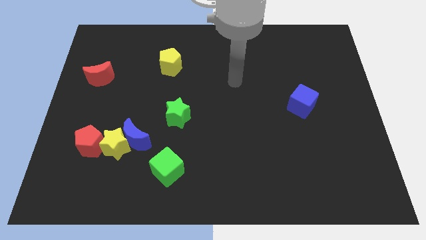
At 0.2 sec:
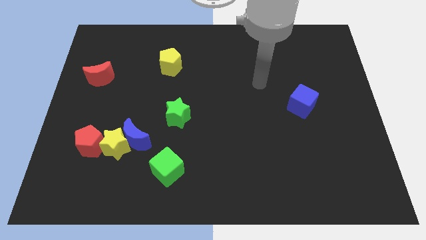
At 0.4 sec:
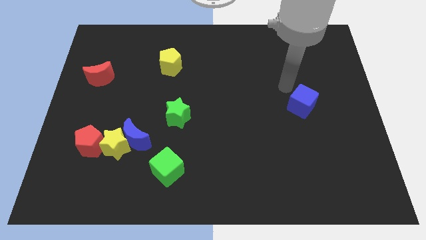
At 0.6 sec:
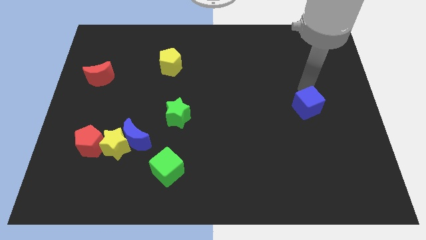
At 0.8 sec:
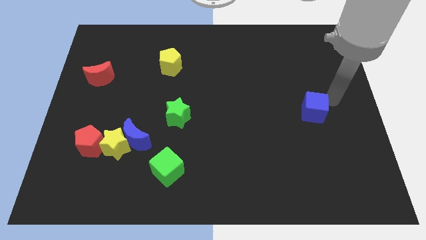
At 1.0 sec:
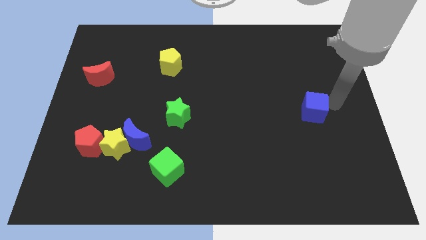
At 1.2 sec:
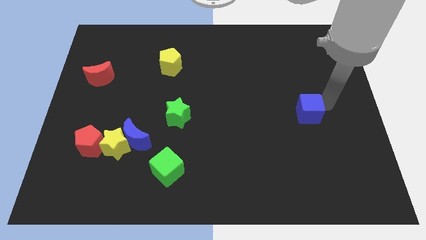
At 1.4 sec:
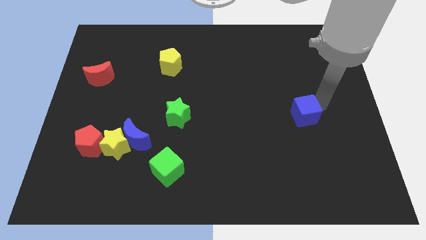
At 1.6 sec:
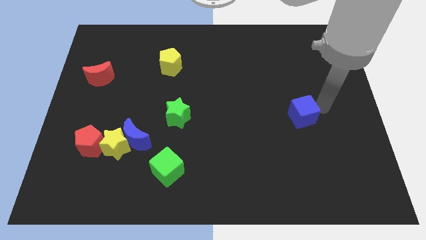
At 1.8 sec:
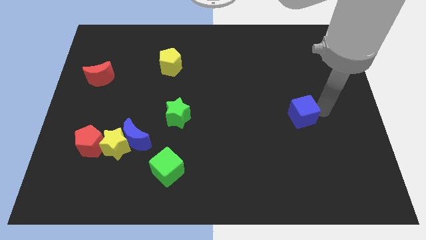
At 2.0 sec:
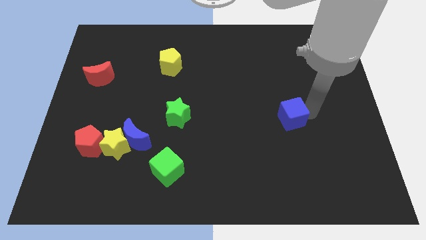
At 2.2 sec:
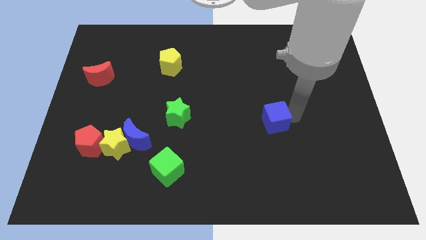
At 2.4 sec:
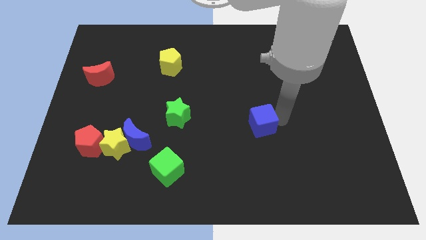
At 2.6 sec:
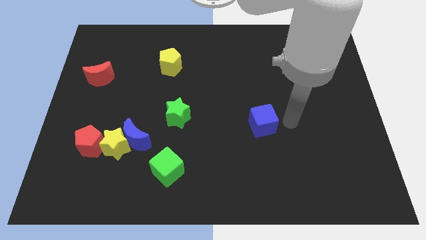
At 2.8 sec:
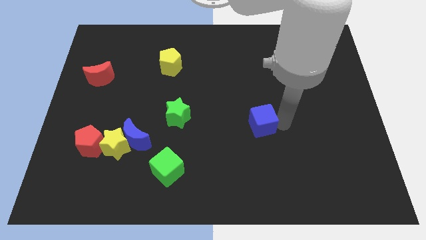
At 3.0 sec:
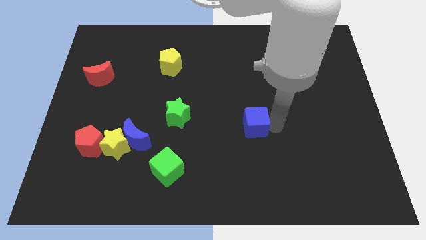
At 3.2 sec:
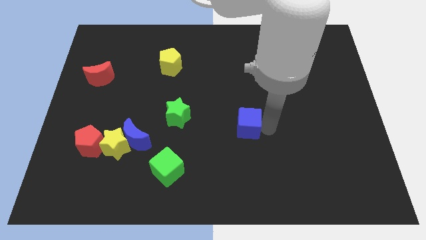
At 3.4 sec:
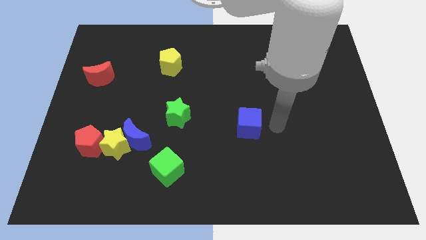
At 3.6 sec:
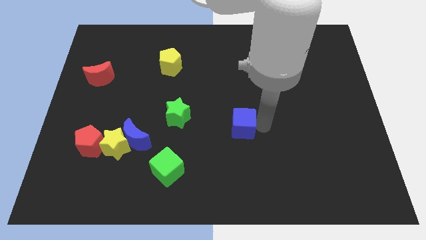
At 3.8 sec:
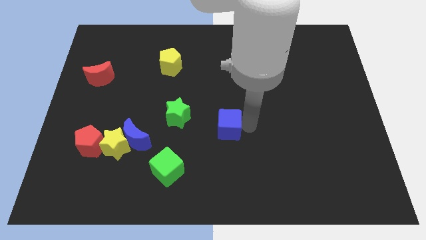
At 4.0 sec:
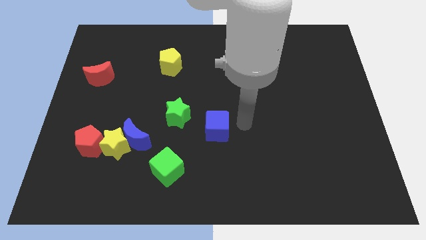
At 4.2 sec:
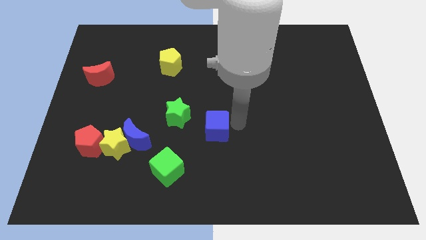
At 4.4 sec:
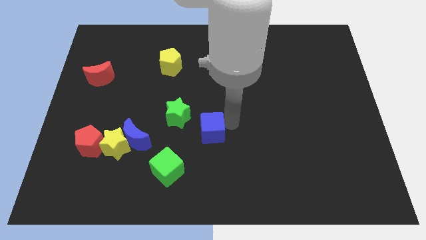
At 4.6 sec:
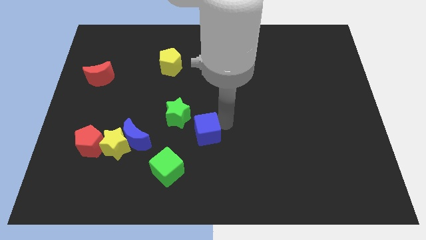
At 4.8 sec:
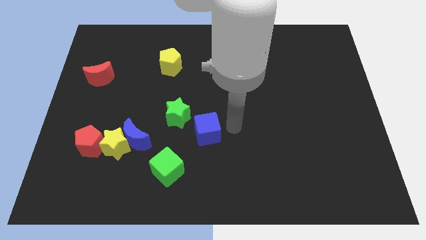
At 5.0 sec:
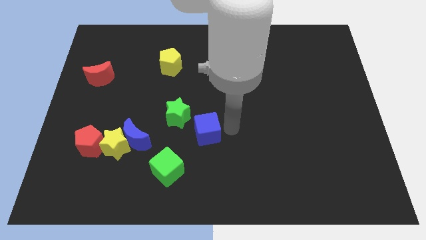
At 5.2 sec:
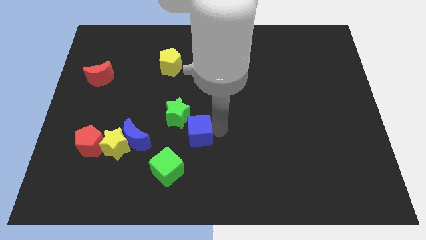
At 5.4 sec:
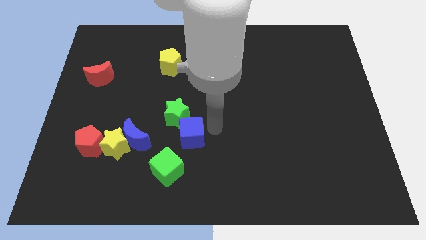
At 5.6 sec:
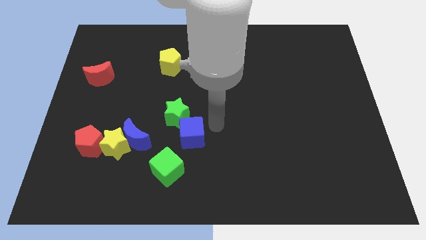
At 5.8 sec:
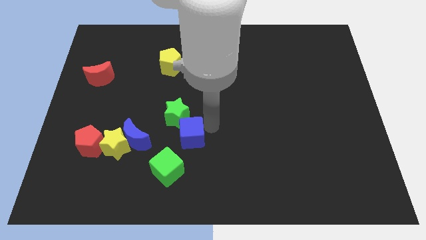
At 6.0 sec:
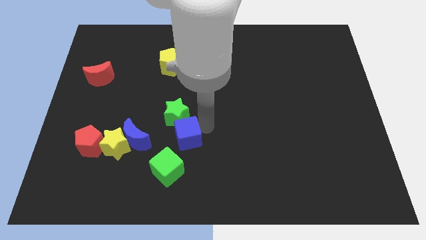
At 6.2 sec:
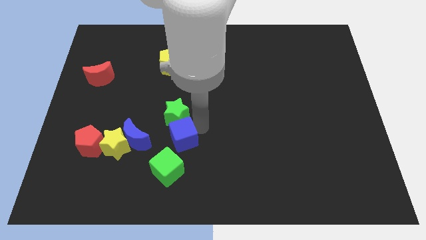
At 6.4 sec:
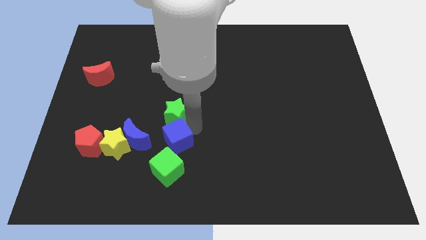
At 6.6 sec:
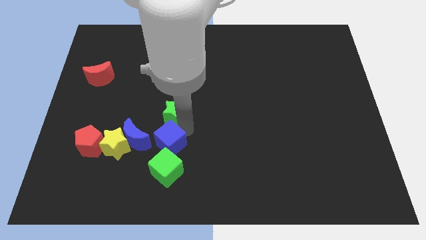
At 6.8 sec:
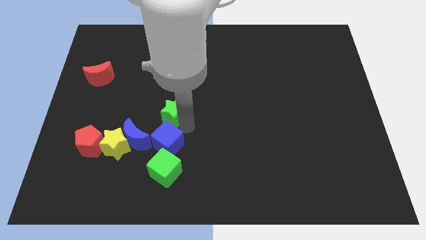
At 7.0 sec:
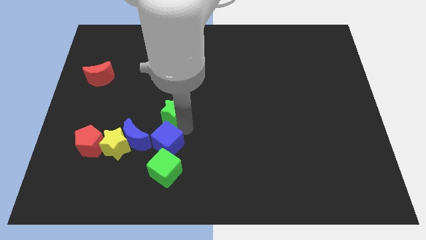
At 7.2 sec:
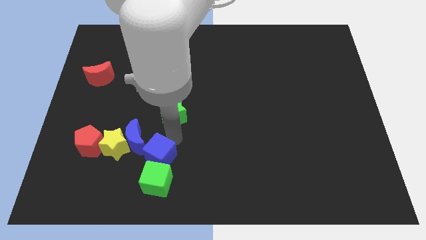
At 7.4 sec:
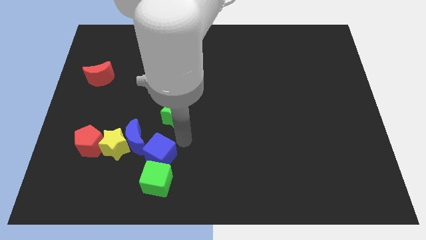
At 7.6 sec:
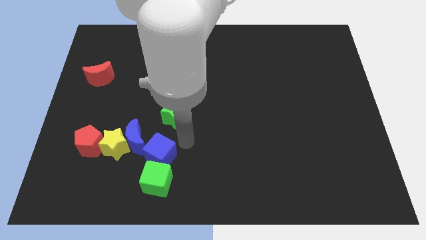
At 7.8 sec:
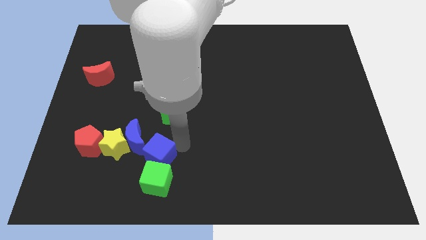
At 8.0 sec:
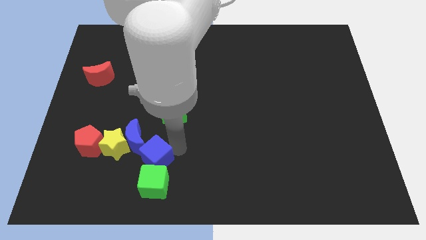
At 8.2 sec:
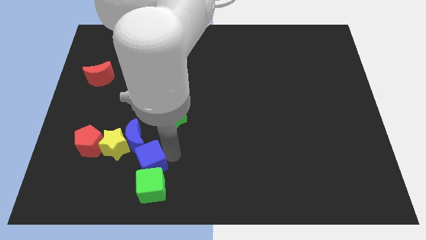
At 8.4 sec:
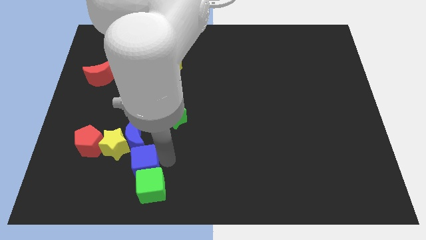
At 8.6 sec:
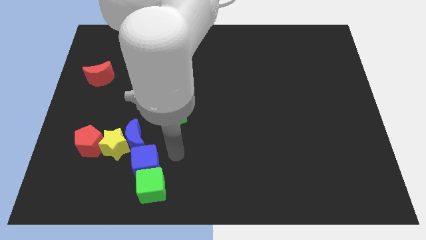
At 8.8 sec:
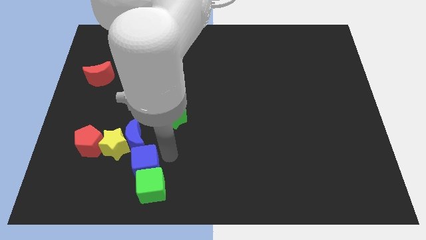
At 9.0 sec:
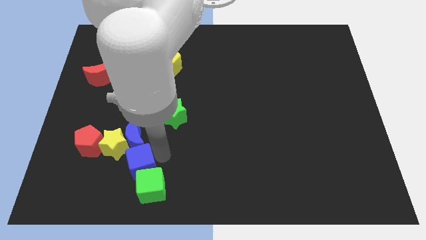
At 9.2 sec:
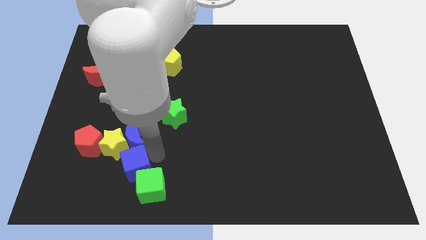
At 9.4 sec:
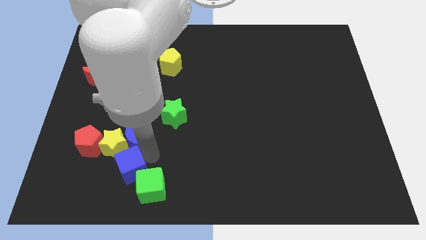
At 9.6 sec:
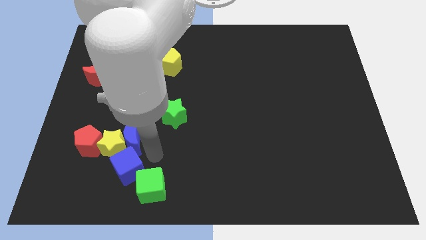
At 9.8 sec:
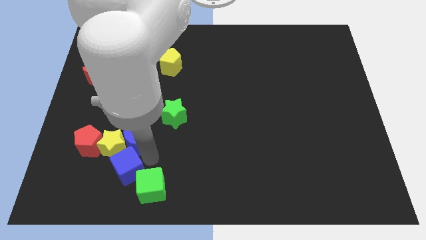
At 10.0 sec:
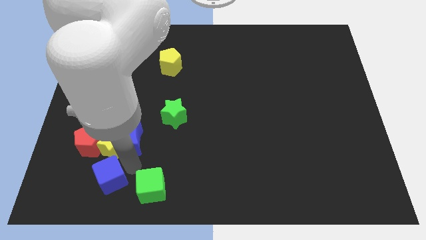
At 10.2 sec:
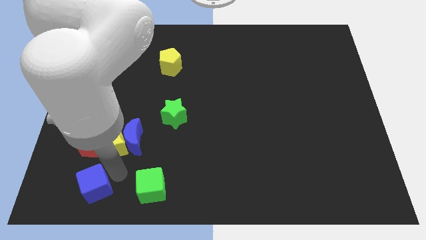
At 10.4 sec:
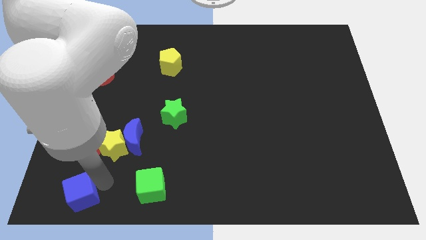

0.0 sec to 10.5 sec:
move the blue cube to the bottom left corner

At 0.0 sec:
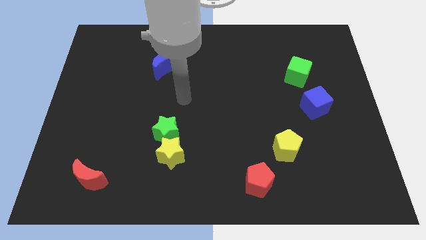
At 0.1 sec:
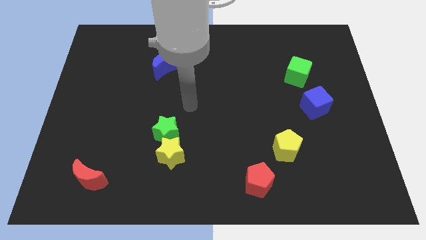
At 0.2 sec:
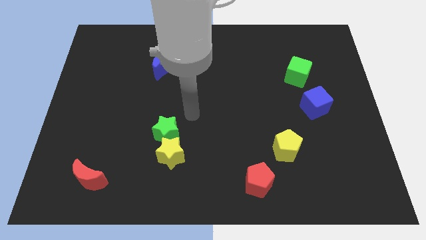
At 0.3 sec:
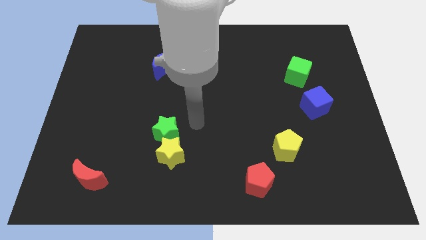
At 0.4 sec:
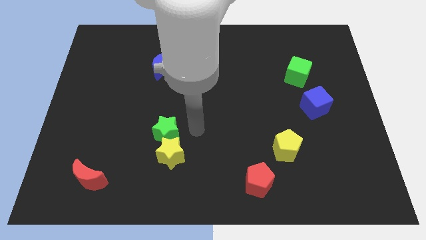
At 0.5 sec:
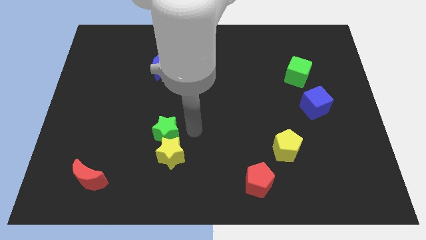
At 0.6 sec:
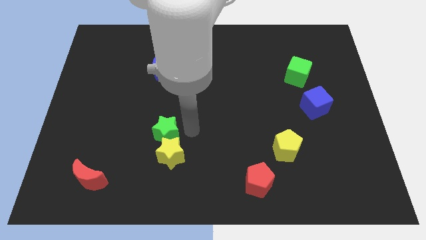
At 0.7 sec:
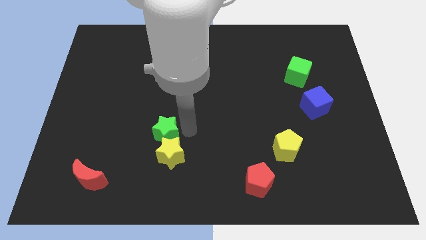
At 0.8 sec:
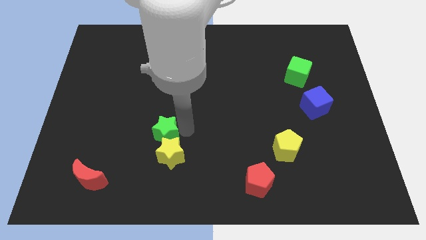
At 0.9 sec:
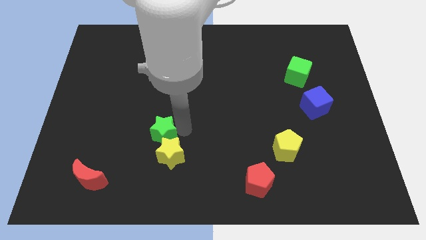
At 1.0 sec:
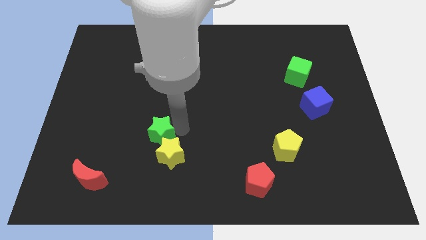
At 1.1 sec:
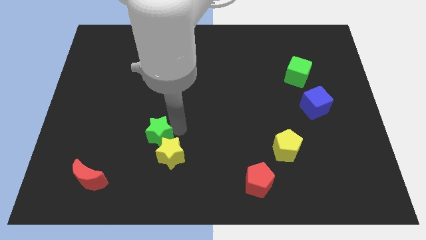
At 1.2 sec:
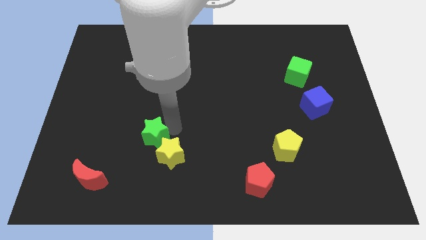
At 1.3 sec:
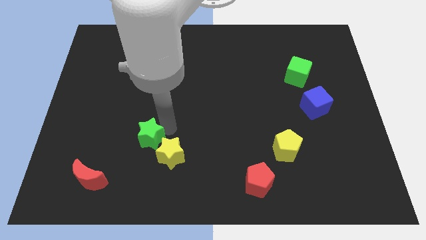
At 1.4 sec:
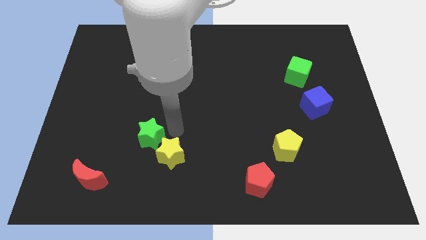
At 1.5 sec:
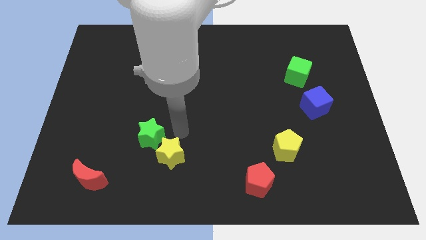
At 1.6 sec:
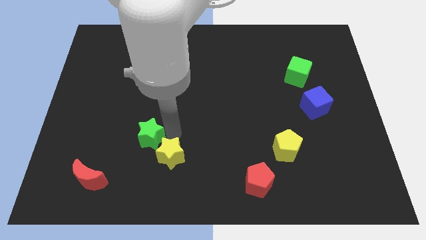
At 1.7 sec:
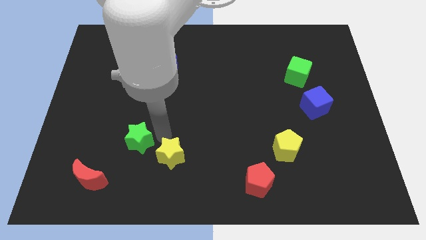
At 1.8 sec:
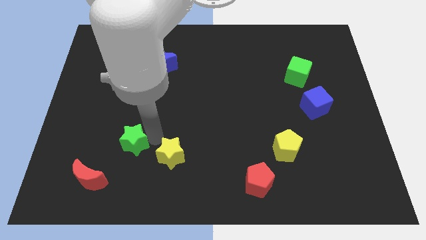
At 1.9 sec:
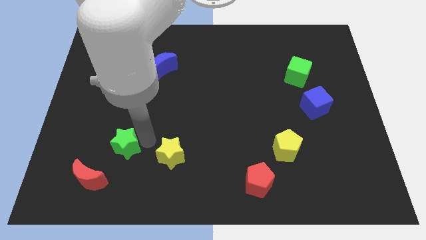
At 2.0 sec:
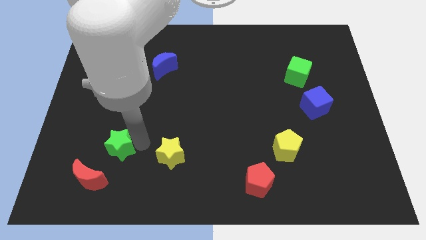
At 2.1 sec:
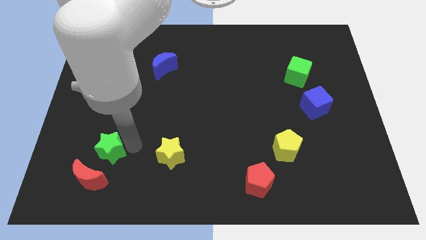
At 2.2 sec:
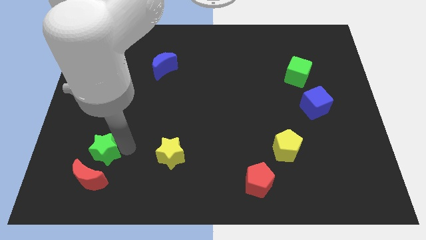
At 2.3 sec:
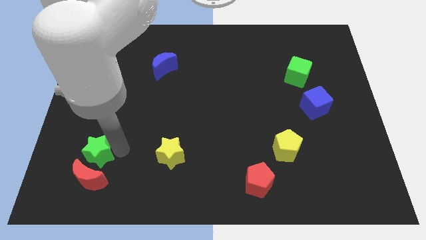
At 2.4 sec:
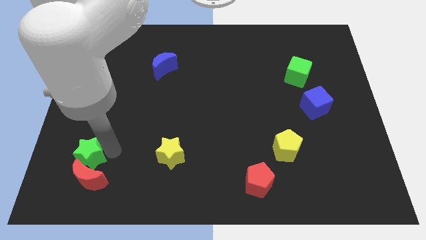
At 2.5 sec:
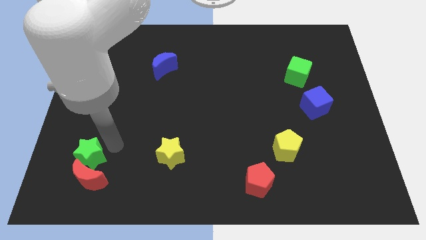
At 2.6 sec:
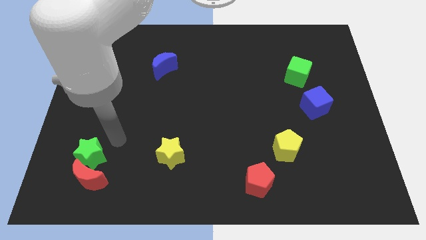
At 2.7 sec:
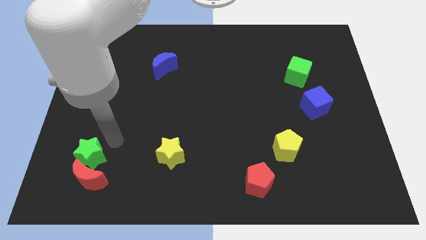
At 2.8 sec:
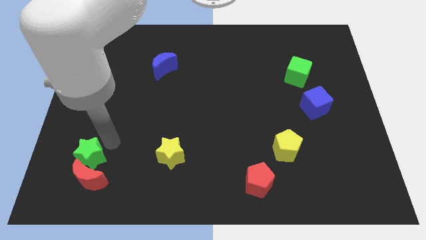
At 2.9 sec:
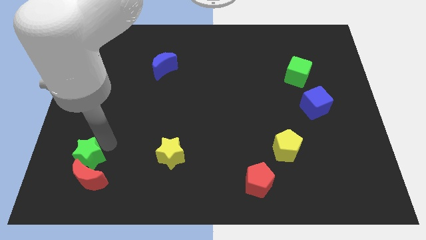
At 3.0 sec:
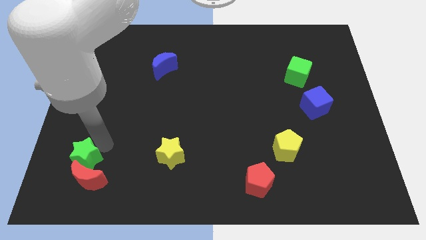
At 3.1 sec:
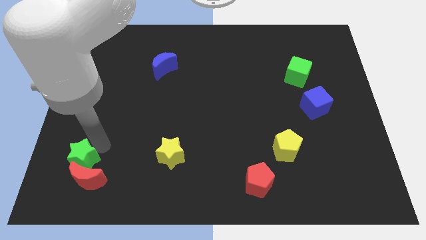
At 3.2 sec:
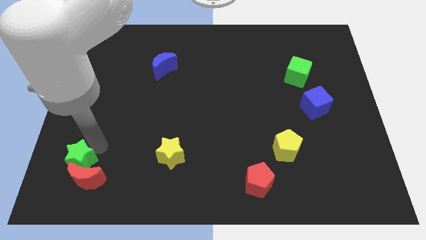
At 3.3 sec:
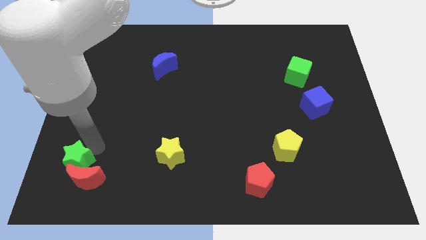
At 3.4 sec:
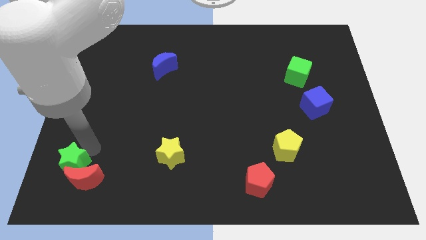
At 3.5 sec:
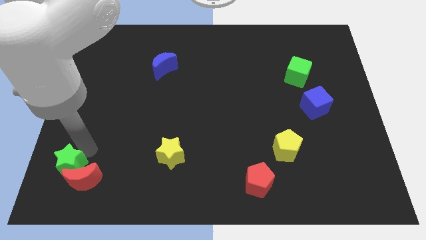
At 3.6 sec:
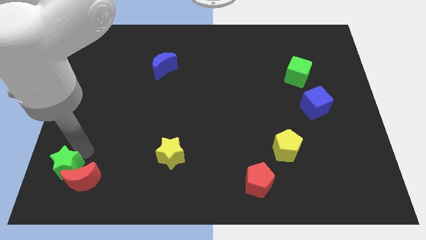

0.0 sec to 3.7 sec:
put the green star to the bottom left of the board
